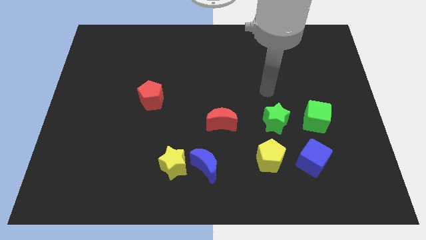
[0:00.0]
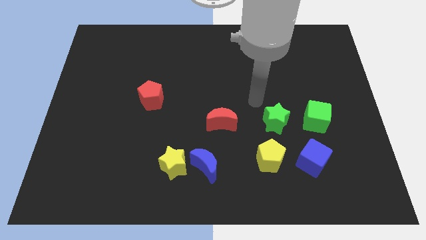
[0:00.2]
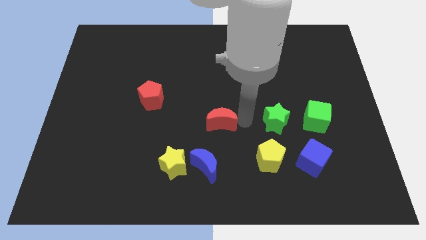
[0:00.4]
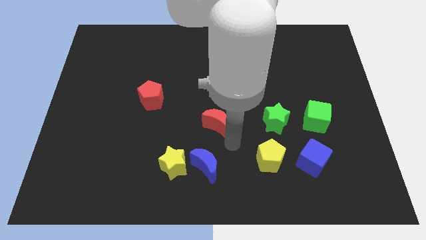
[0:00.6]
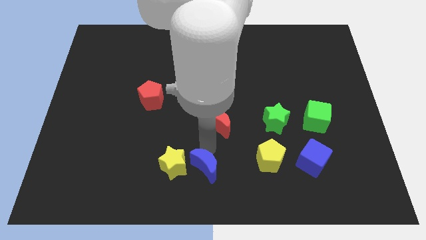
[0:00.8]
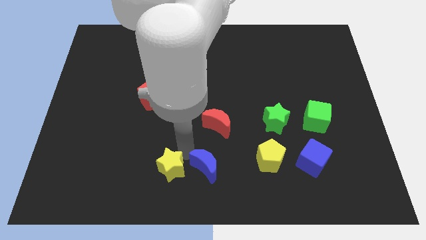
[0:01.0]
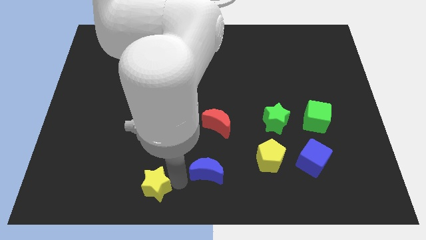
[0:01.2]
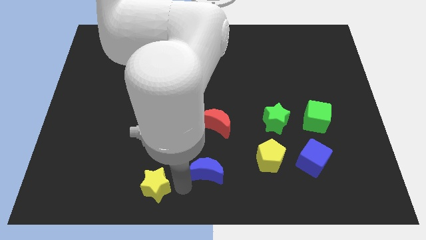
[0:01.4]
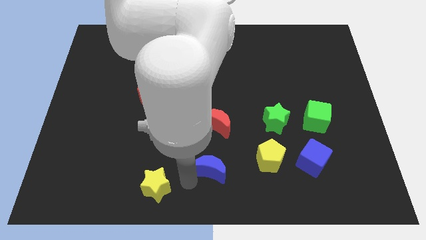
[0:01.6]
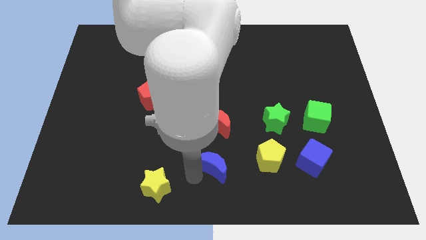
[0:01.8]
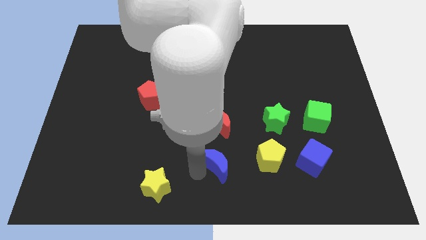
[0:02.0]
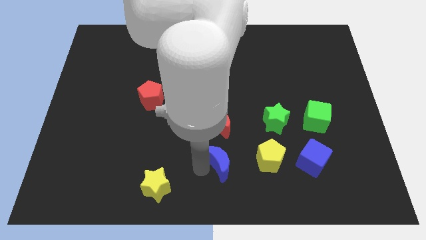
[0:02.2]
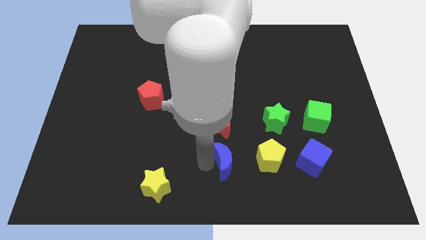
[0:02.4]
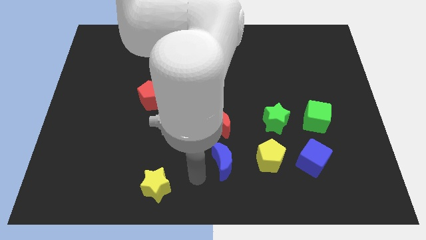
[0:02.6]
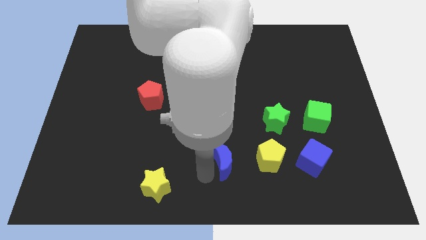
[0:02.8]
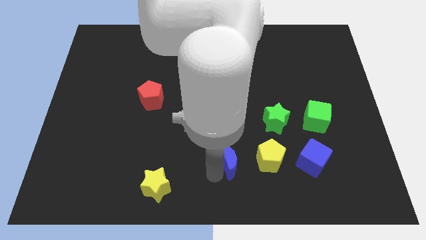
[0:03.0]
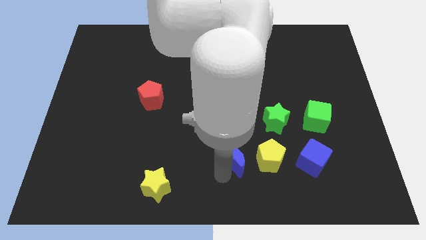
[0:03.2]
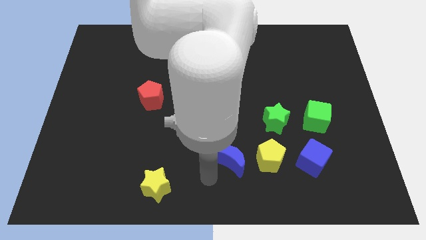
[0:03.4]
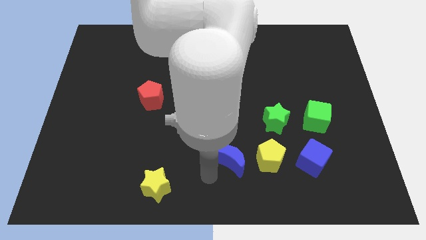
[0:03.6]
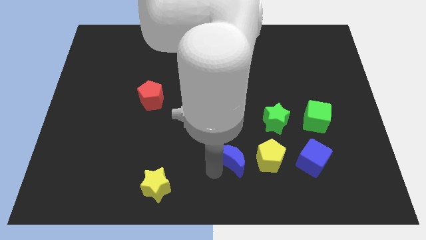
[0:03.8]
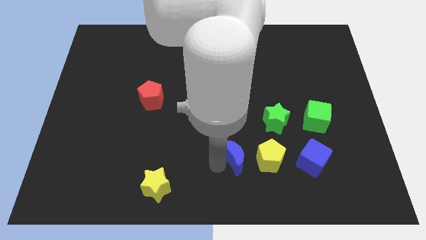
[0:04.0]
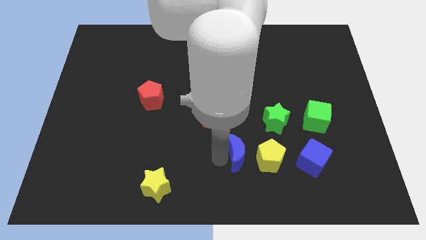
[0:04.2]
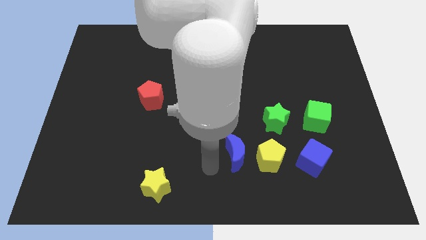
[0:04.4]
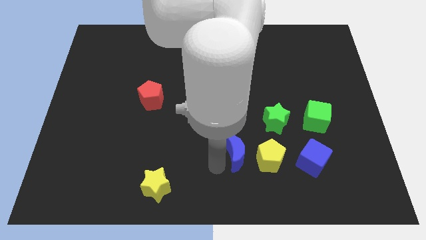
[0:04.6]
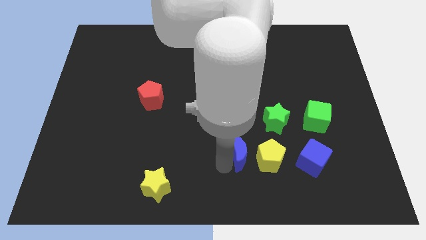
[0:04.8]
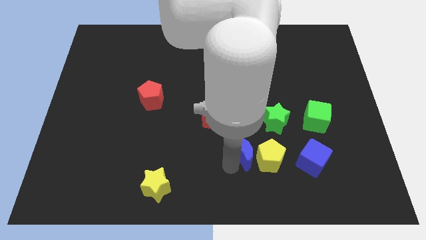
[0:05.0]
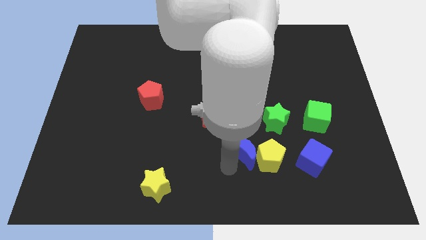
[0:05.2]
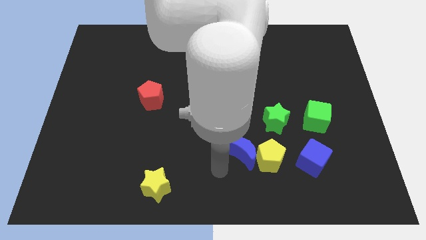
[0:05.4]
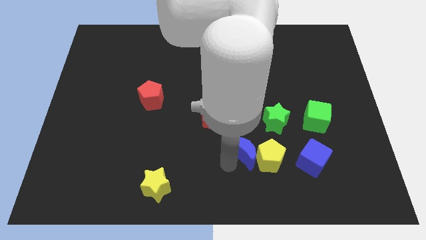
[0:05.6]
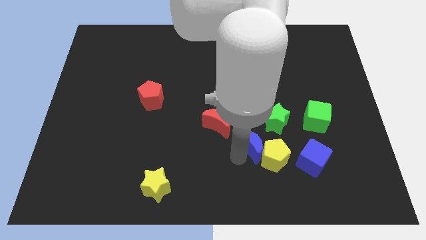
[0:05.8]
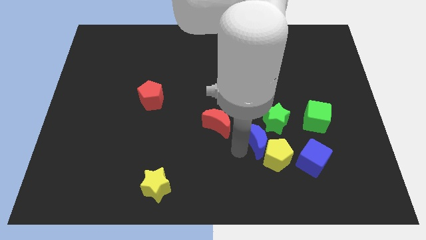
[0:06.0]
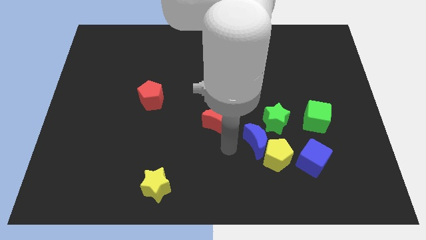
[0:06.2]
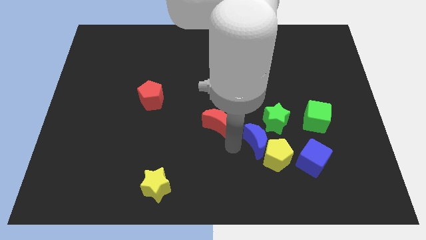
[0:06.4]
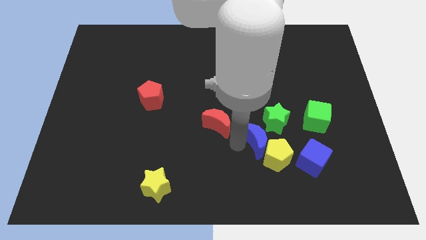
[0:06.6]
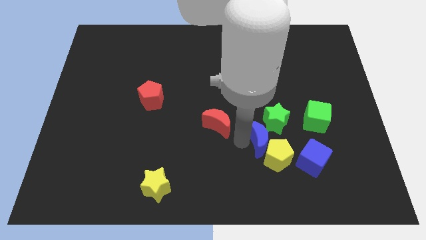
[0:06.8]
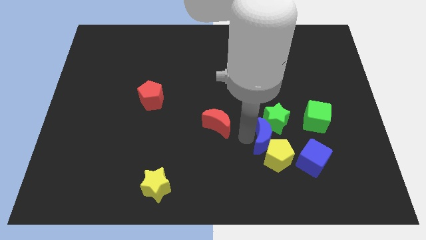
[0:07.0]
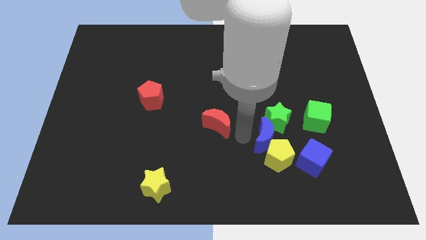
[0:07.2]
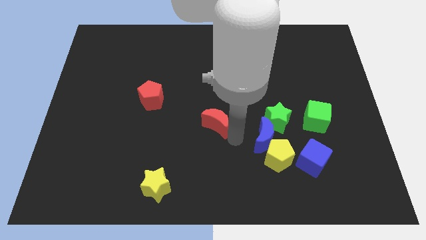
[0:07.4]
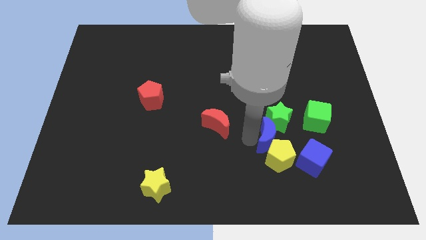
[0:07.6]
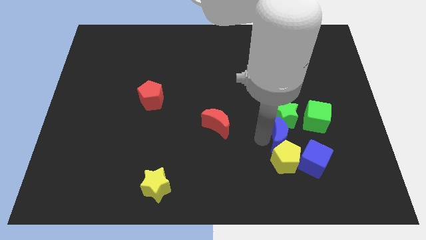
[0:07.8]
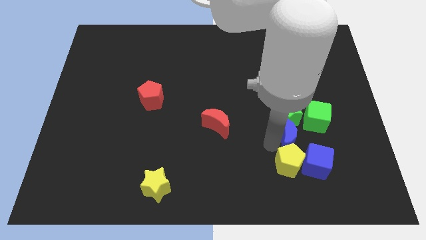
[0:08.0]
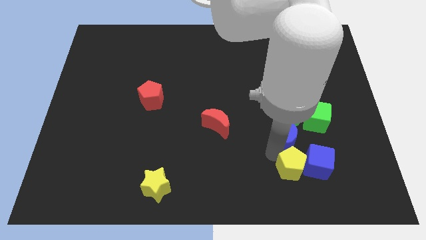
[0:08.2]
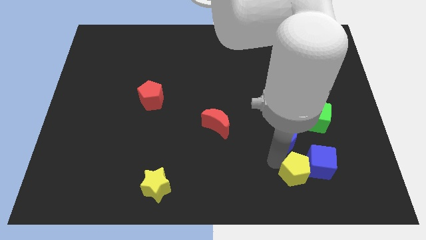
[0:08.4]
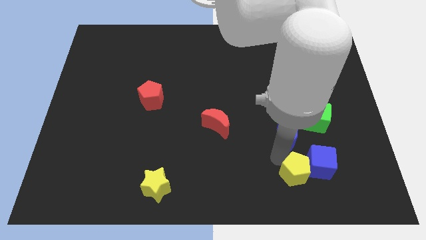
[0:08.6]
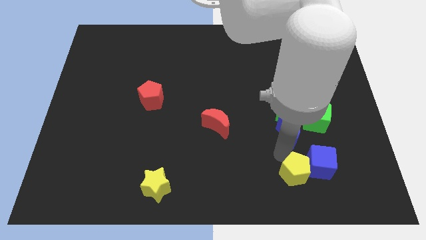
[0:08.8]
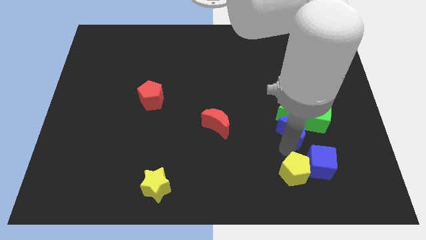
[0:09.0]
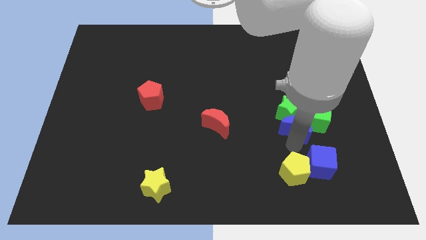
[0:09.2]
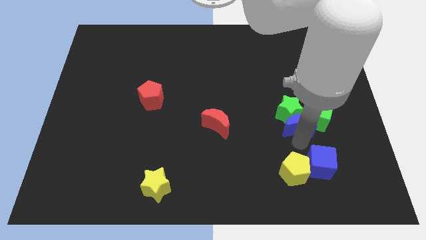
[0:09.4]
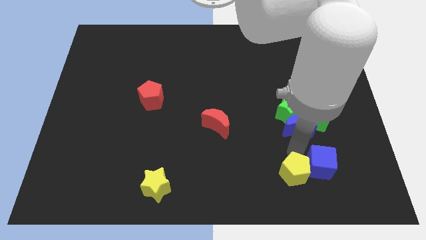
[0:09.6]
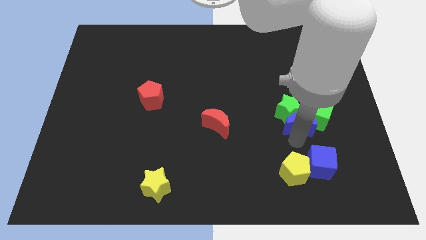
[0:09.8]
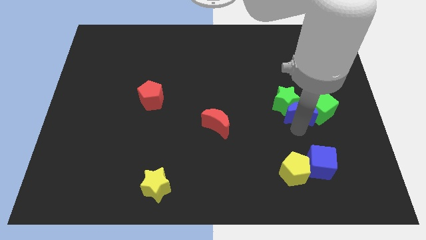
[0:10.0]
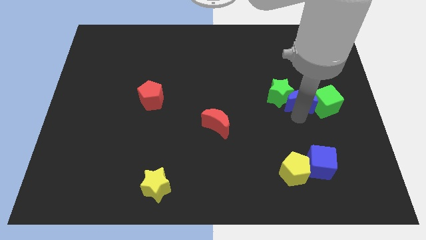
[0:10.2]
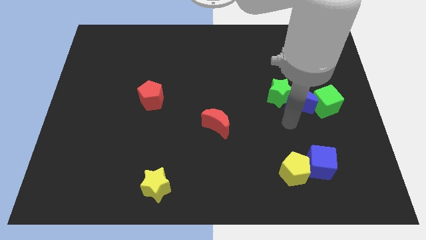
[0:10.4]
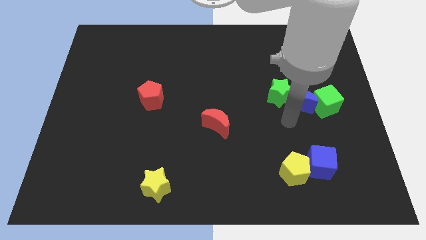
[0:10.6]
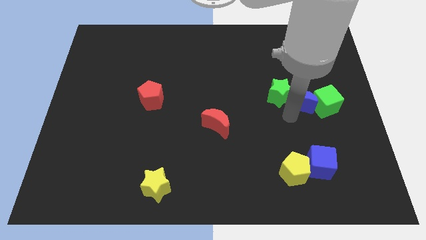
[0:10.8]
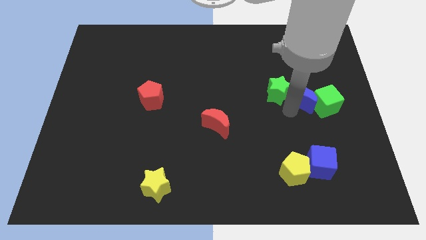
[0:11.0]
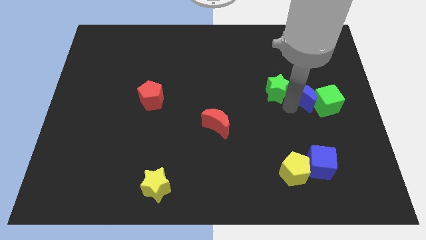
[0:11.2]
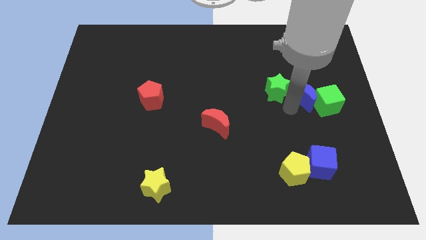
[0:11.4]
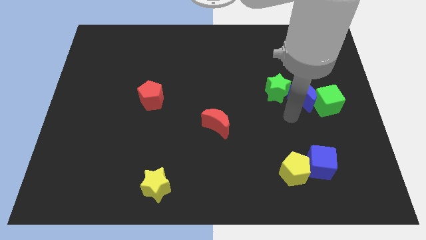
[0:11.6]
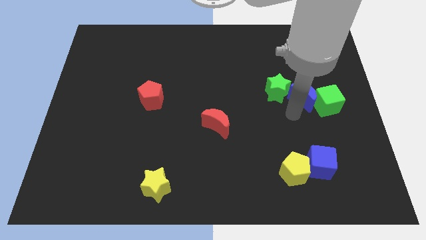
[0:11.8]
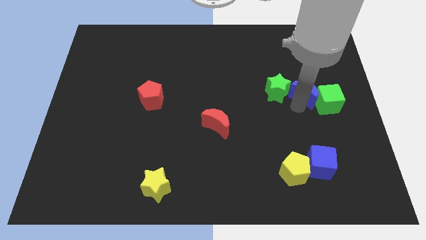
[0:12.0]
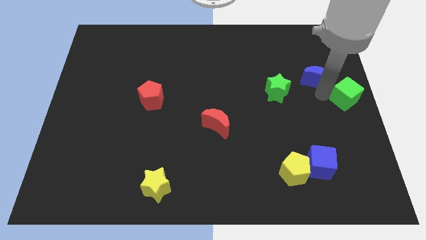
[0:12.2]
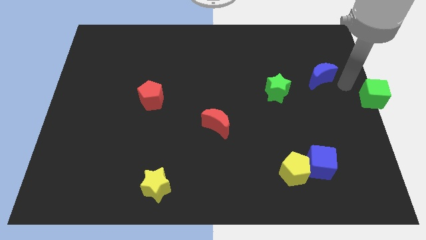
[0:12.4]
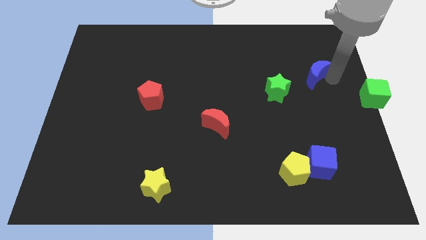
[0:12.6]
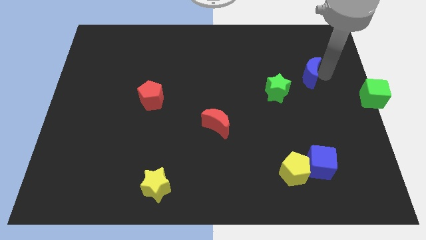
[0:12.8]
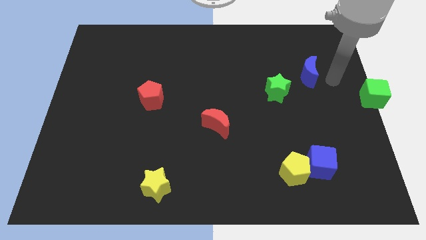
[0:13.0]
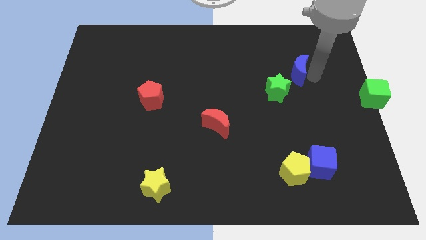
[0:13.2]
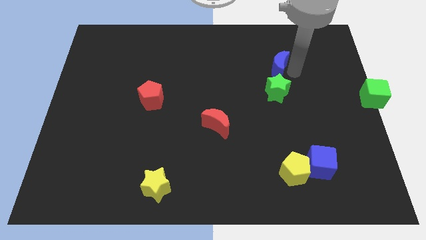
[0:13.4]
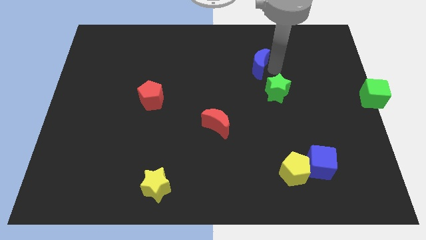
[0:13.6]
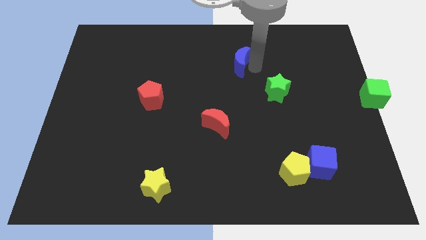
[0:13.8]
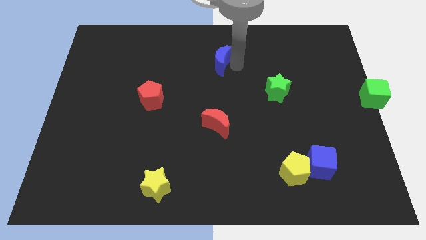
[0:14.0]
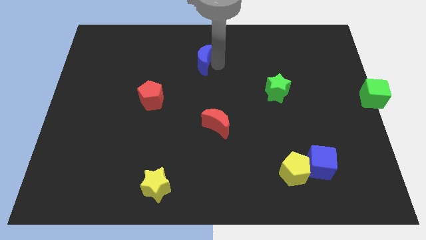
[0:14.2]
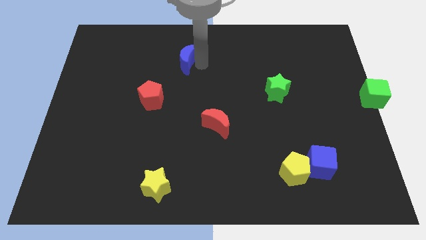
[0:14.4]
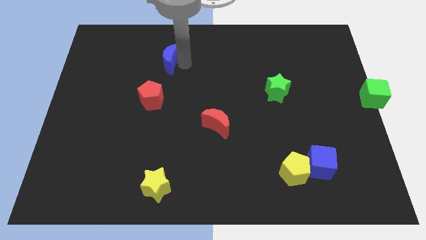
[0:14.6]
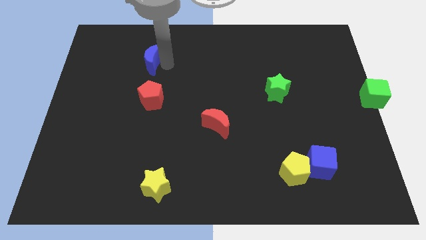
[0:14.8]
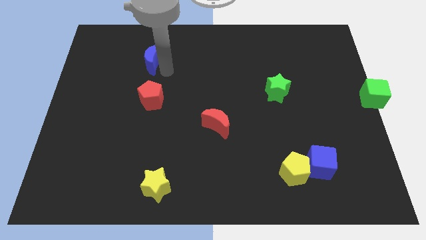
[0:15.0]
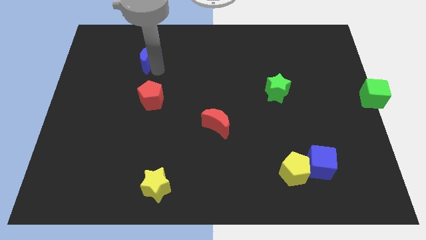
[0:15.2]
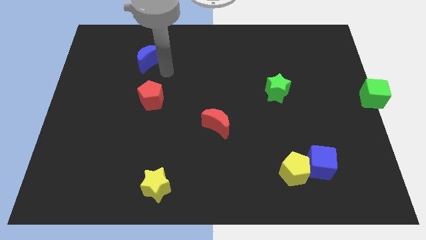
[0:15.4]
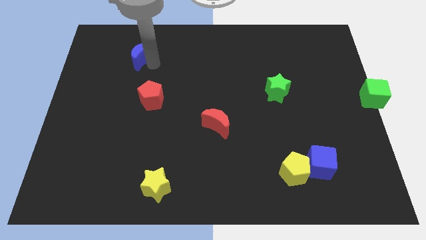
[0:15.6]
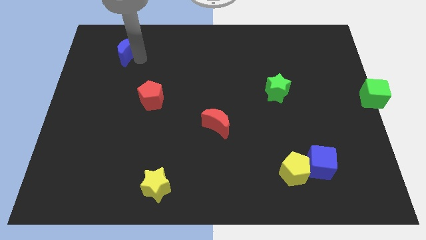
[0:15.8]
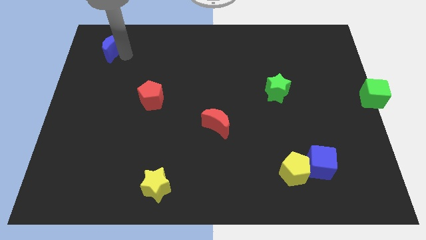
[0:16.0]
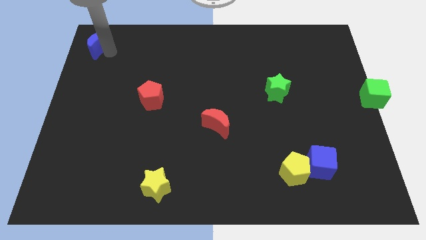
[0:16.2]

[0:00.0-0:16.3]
put the blue moon to the top left of the board
